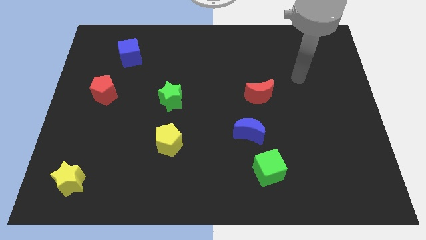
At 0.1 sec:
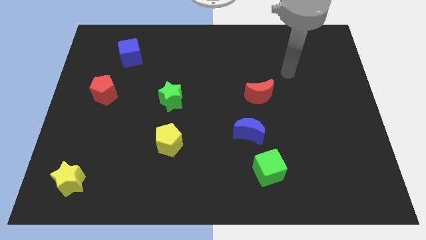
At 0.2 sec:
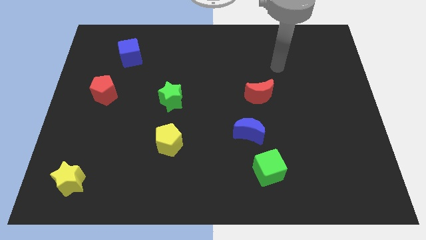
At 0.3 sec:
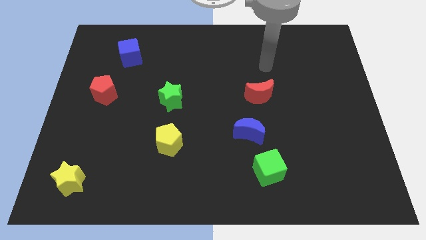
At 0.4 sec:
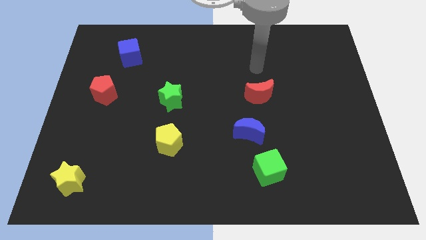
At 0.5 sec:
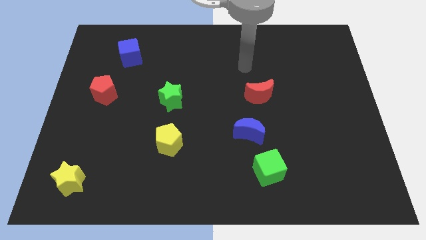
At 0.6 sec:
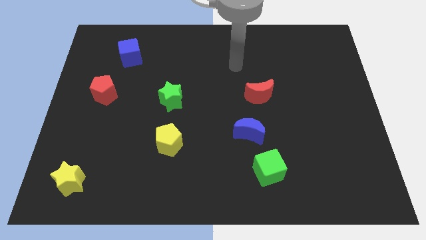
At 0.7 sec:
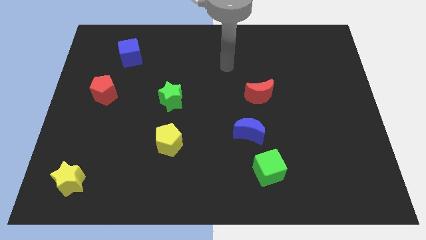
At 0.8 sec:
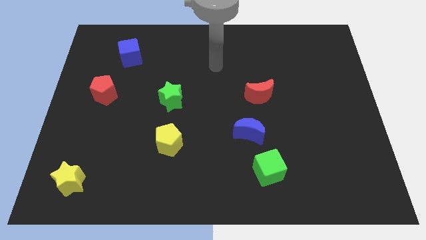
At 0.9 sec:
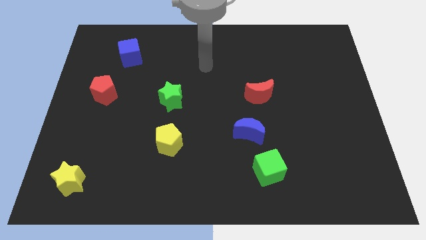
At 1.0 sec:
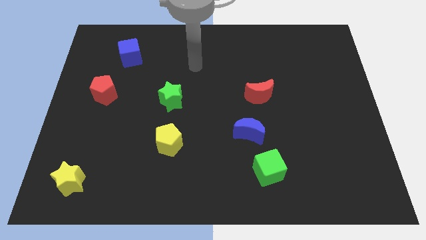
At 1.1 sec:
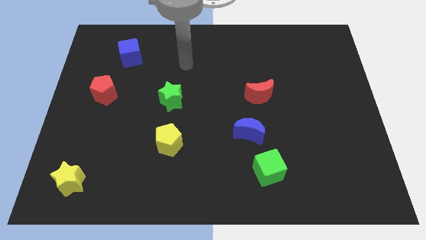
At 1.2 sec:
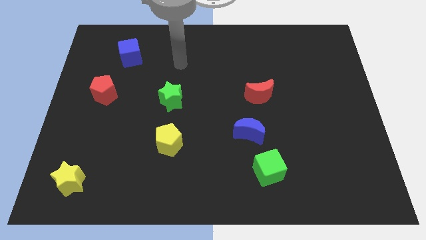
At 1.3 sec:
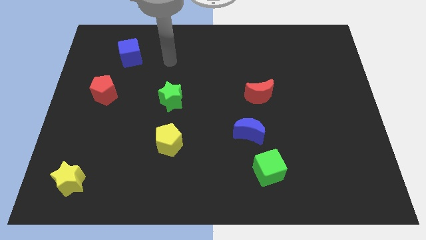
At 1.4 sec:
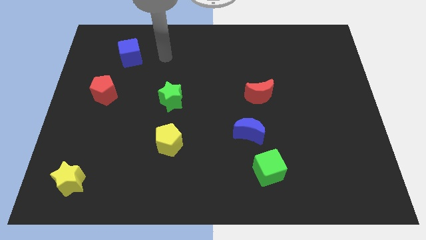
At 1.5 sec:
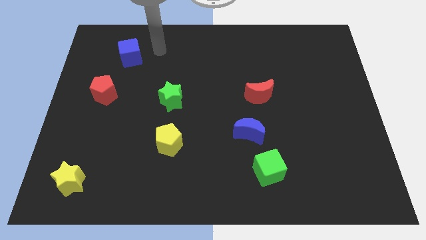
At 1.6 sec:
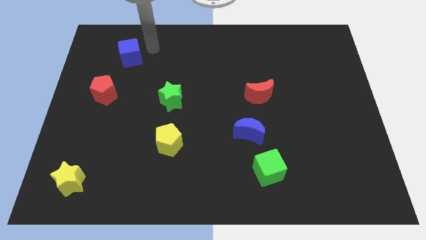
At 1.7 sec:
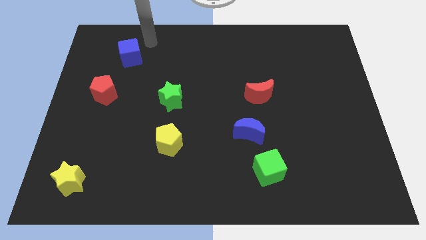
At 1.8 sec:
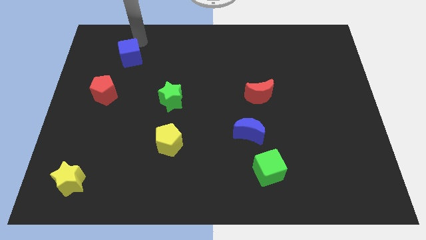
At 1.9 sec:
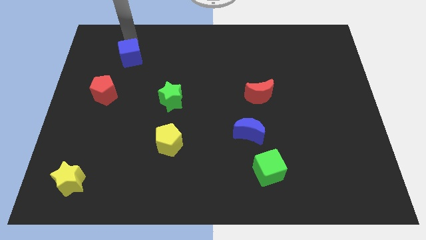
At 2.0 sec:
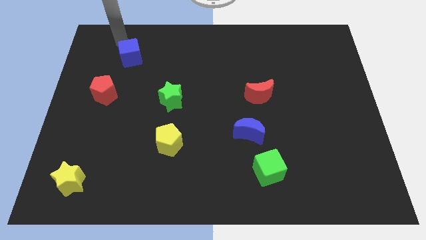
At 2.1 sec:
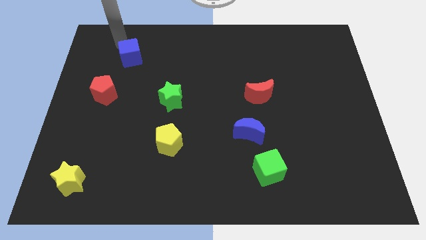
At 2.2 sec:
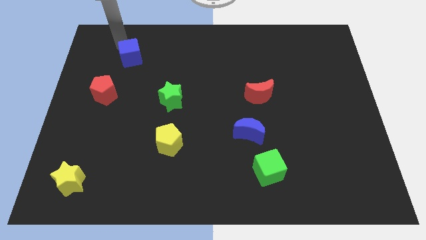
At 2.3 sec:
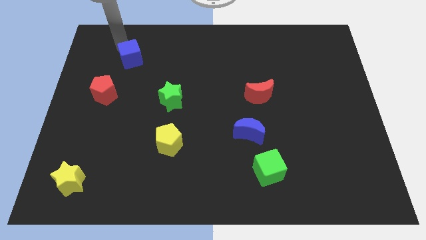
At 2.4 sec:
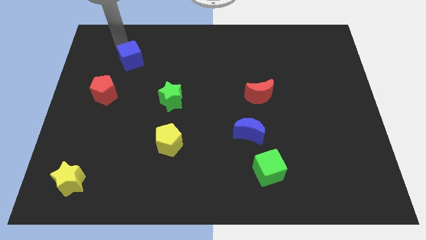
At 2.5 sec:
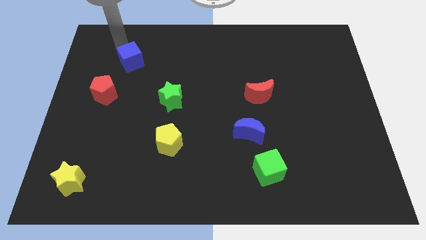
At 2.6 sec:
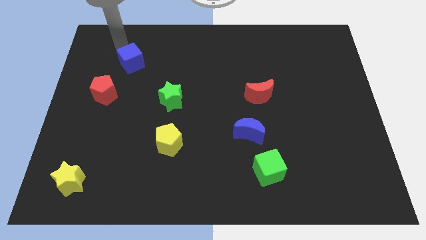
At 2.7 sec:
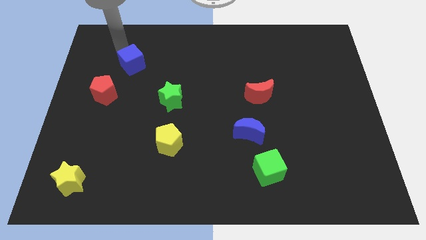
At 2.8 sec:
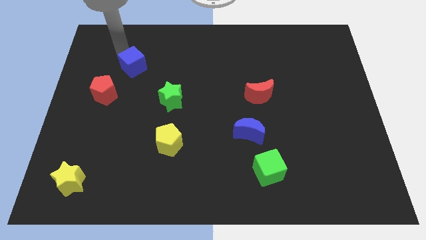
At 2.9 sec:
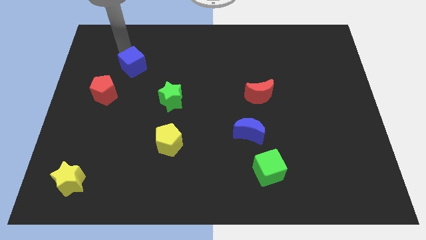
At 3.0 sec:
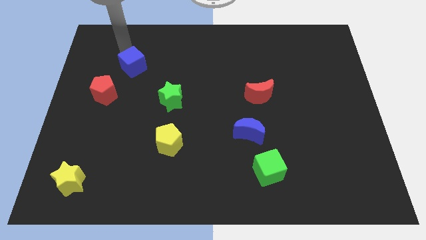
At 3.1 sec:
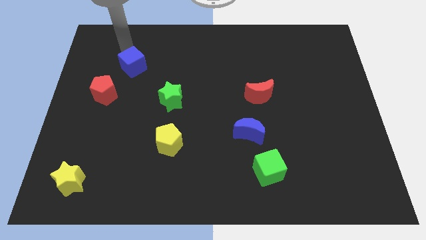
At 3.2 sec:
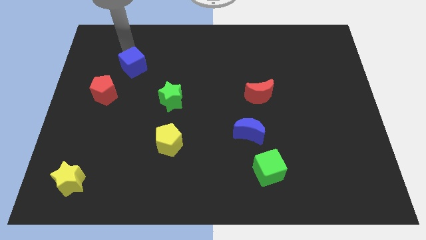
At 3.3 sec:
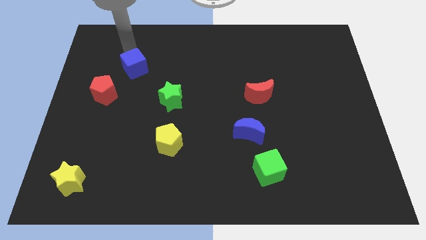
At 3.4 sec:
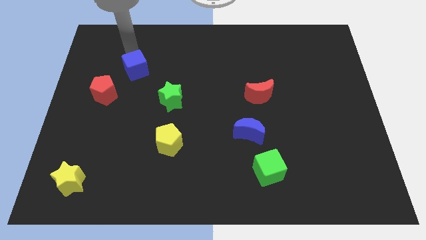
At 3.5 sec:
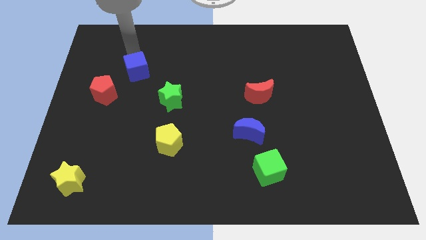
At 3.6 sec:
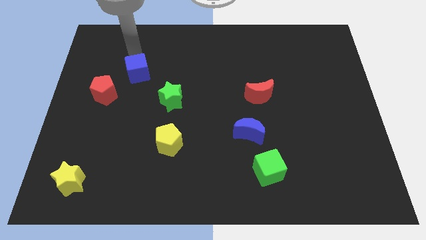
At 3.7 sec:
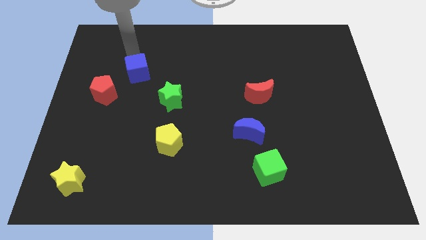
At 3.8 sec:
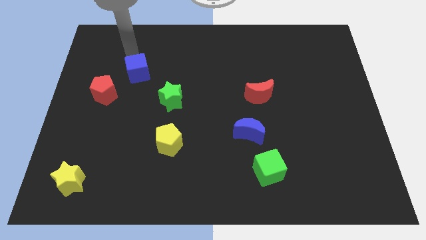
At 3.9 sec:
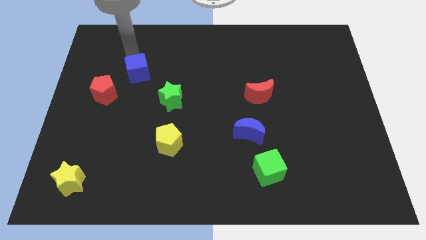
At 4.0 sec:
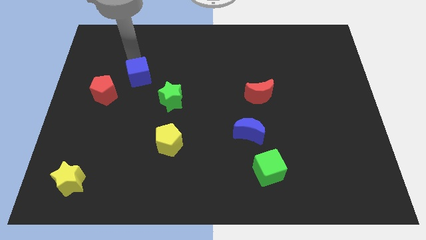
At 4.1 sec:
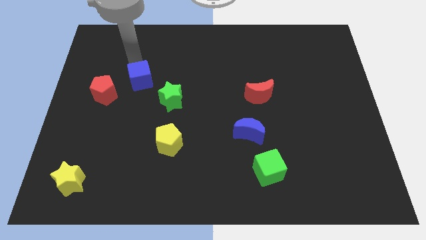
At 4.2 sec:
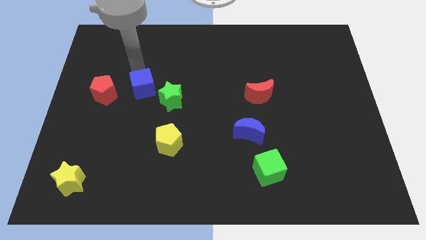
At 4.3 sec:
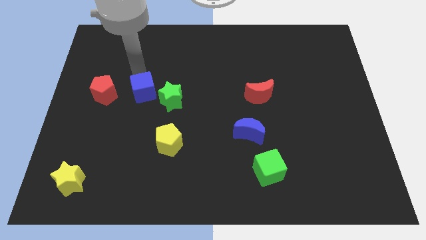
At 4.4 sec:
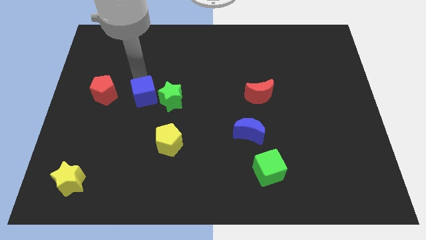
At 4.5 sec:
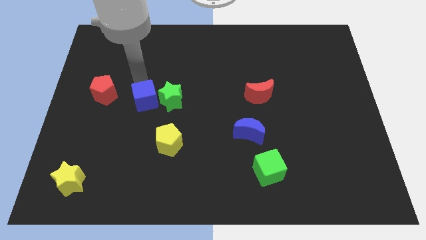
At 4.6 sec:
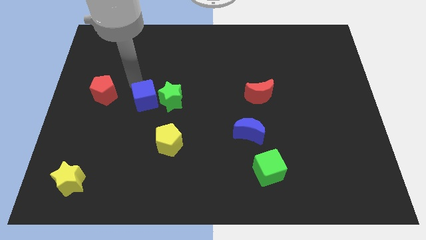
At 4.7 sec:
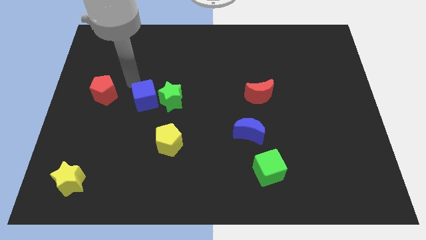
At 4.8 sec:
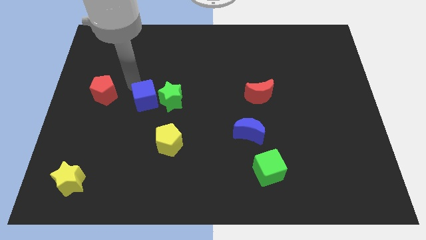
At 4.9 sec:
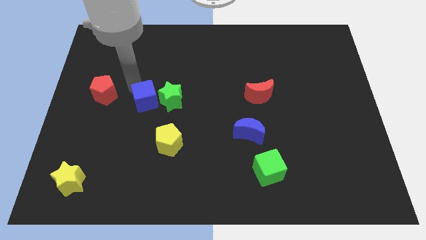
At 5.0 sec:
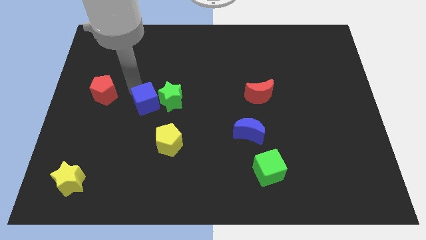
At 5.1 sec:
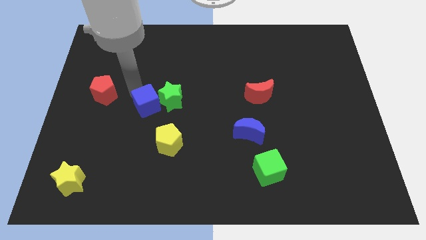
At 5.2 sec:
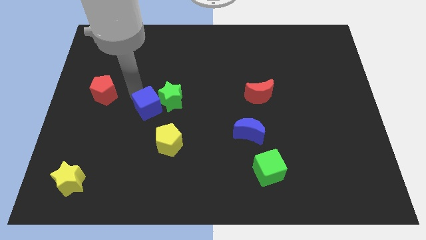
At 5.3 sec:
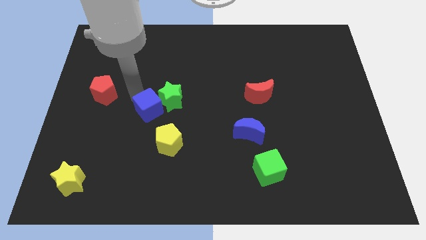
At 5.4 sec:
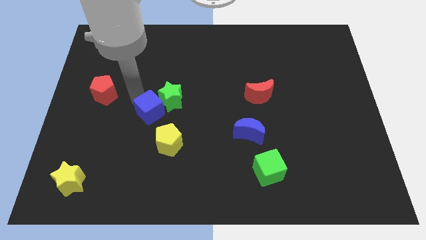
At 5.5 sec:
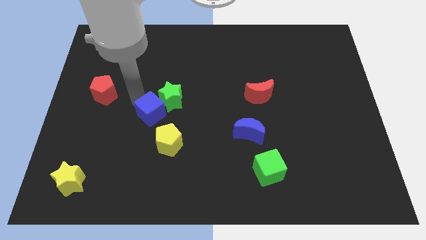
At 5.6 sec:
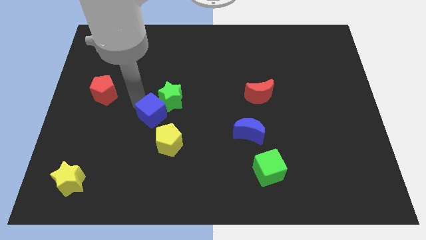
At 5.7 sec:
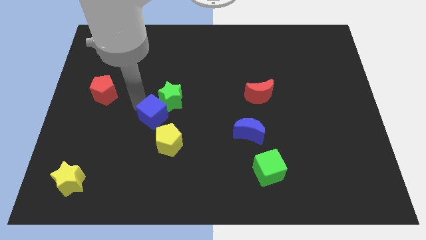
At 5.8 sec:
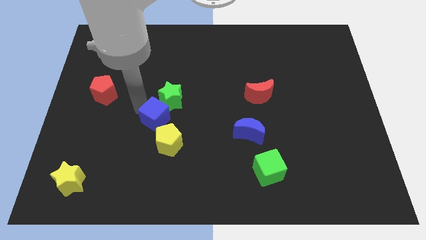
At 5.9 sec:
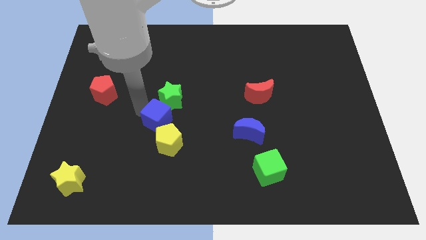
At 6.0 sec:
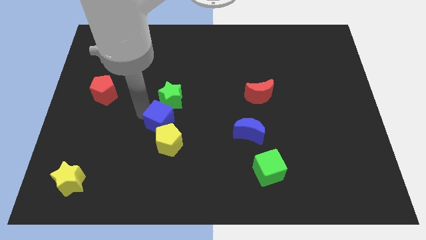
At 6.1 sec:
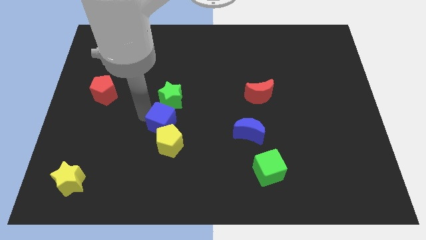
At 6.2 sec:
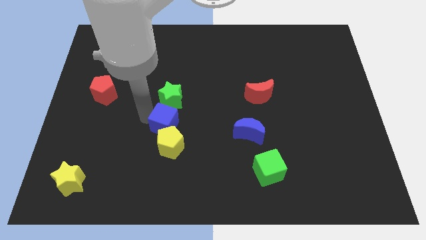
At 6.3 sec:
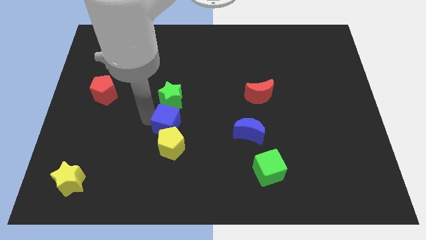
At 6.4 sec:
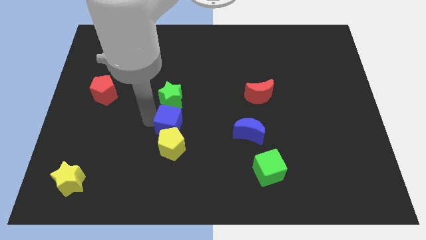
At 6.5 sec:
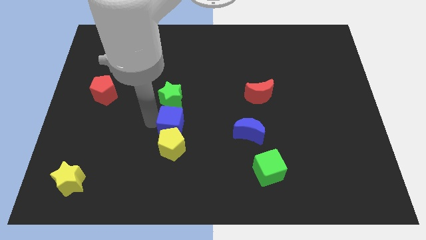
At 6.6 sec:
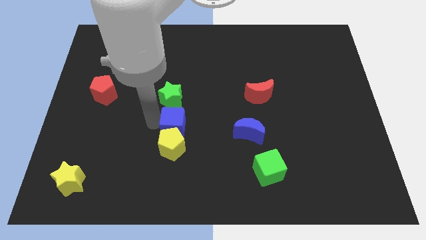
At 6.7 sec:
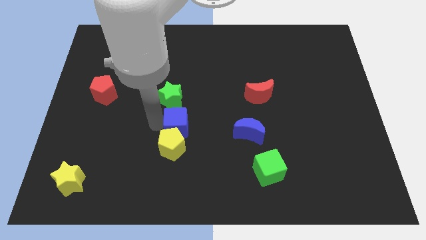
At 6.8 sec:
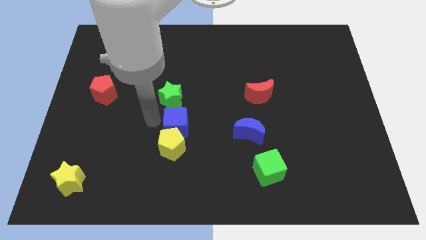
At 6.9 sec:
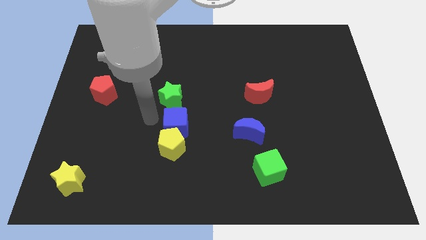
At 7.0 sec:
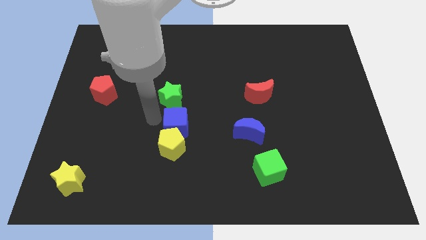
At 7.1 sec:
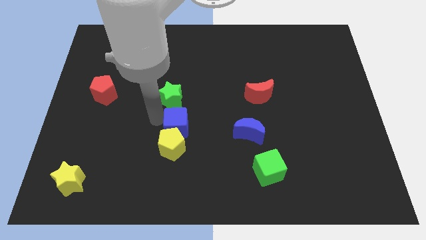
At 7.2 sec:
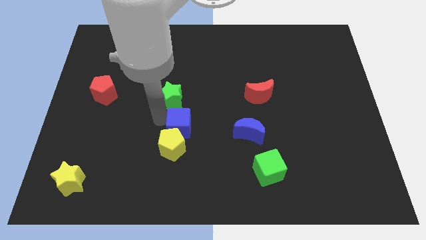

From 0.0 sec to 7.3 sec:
slide the blue cube left of the blue moon
